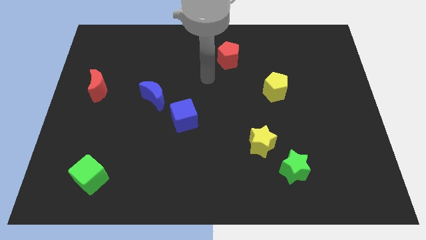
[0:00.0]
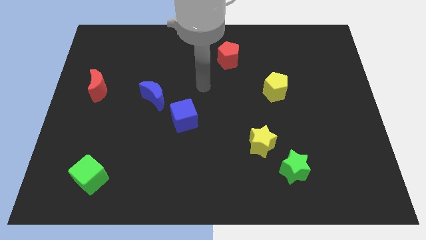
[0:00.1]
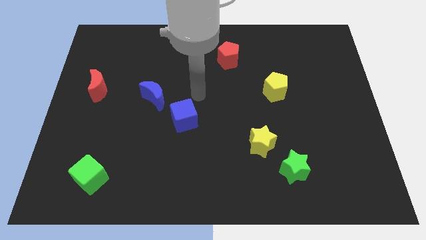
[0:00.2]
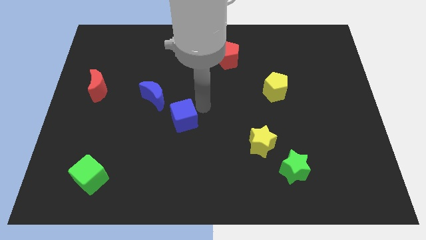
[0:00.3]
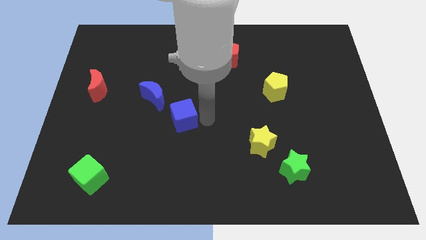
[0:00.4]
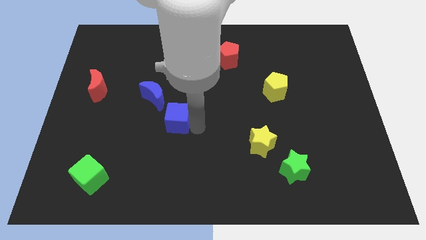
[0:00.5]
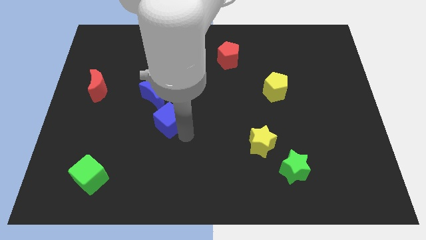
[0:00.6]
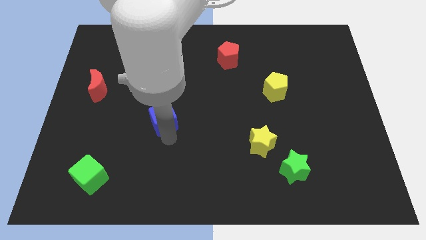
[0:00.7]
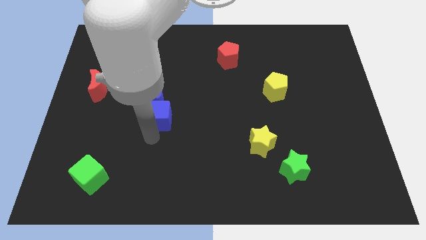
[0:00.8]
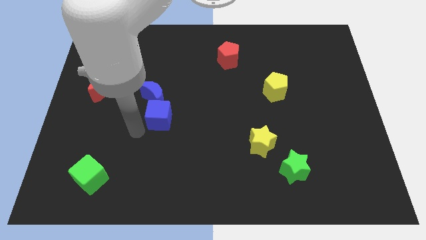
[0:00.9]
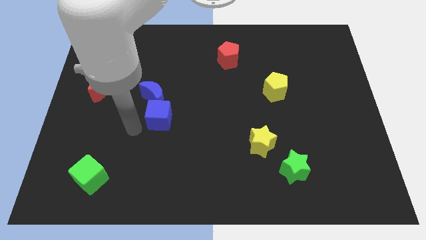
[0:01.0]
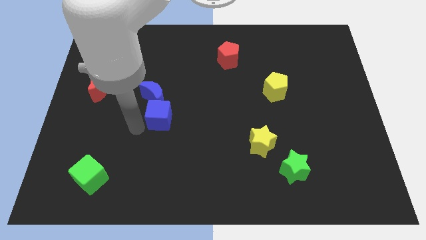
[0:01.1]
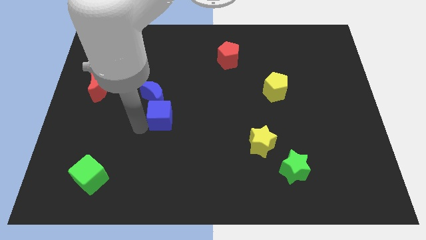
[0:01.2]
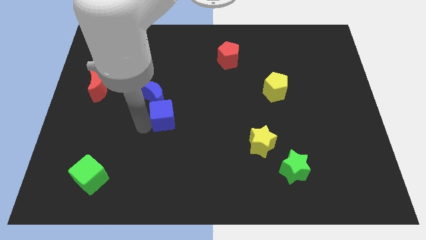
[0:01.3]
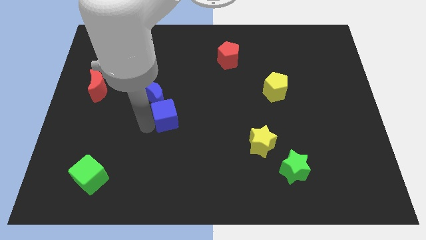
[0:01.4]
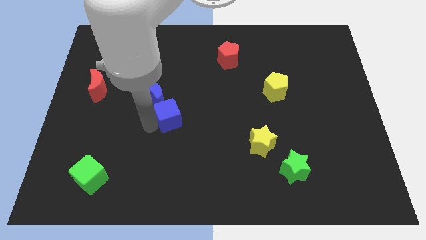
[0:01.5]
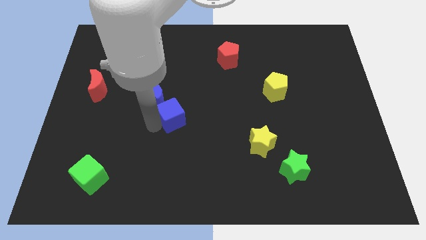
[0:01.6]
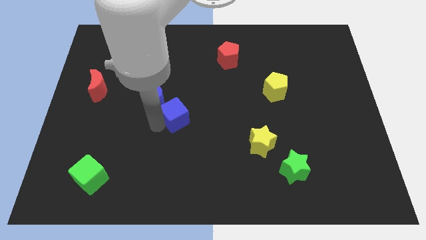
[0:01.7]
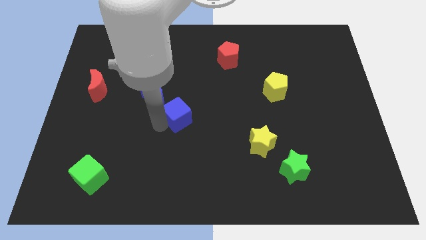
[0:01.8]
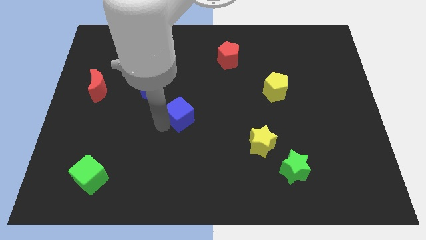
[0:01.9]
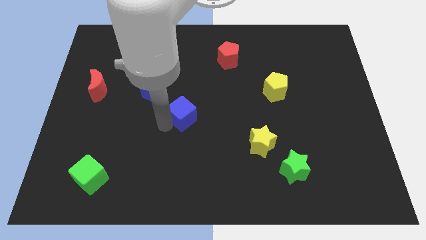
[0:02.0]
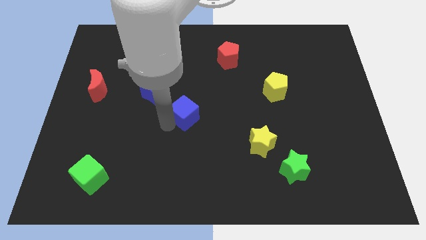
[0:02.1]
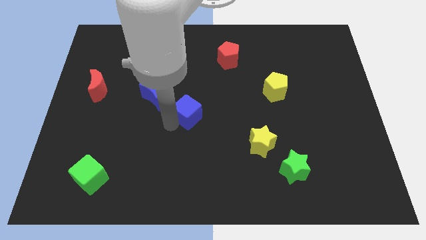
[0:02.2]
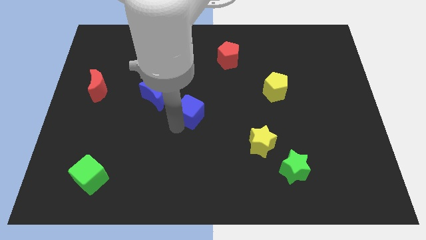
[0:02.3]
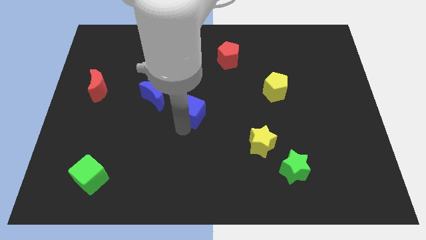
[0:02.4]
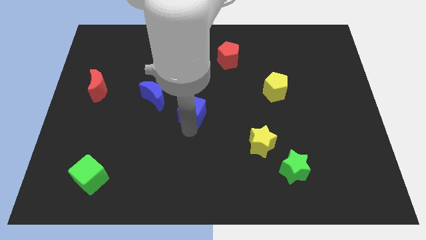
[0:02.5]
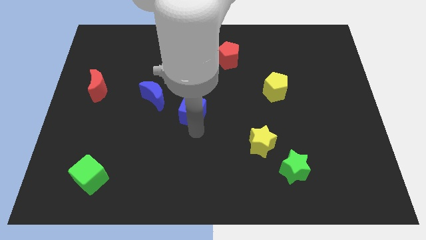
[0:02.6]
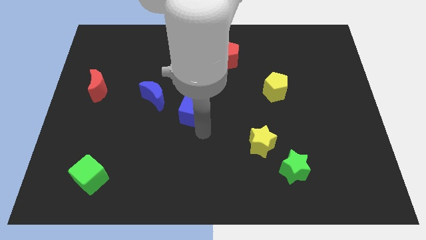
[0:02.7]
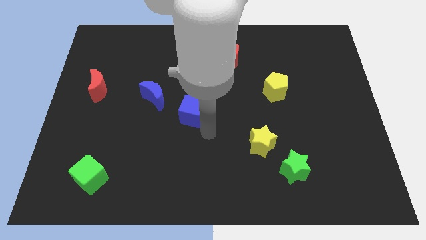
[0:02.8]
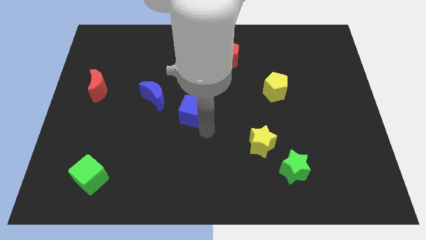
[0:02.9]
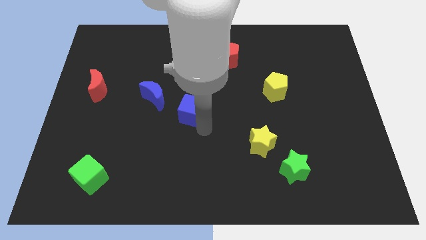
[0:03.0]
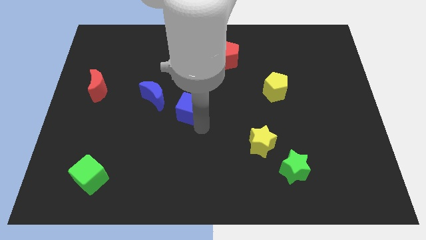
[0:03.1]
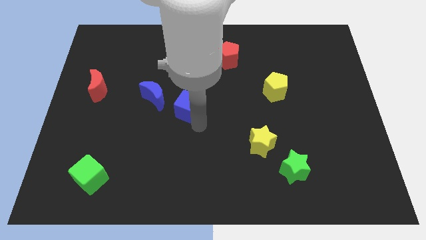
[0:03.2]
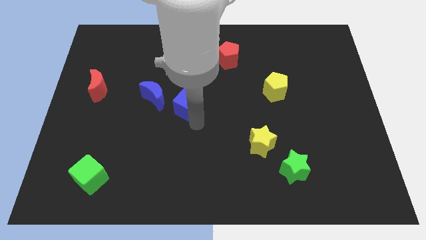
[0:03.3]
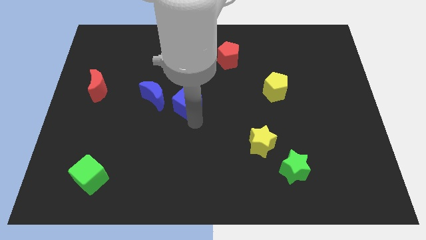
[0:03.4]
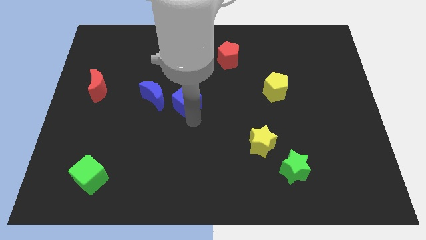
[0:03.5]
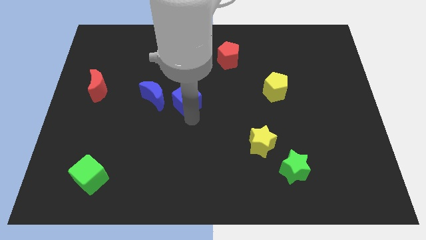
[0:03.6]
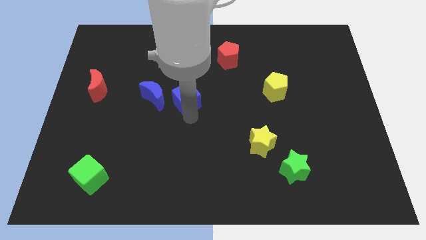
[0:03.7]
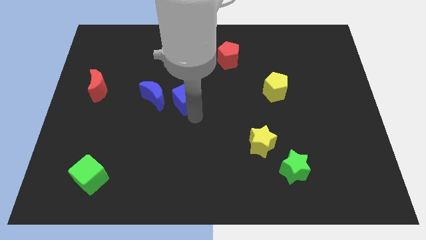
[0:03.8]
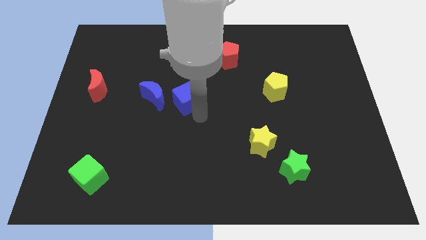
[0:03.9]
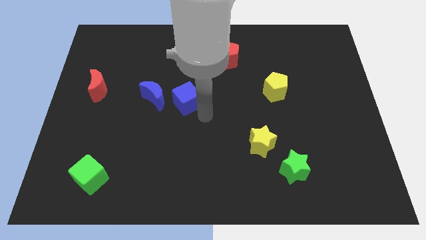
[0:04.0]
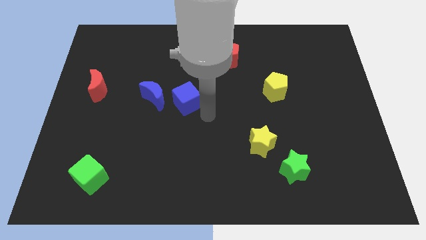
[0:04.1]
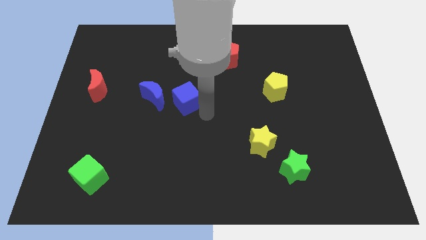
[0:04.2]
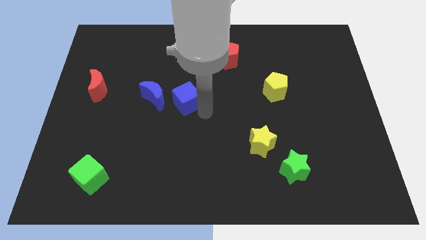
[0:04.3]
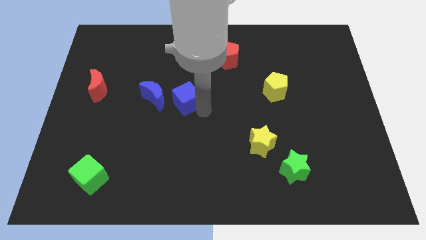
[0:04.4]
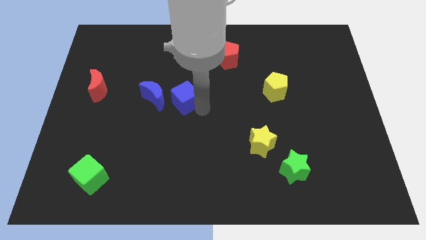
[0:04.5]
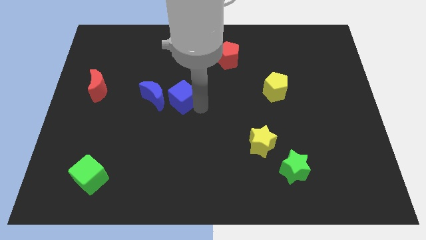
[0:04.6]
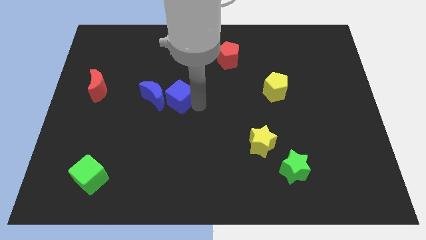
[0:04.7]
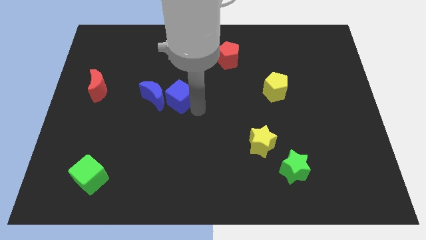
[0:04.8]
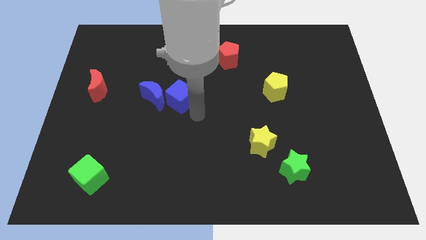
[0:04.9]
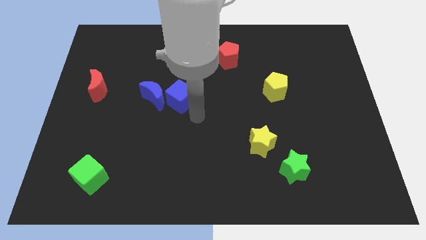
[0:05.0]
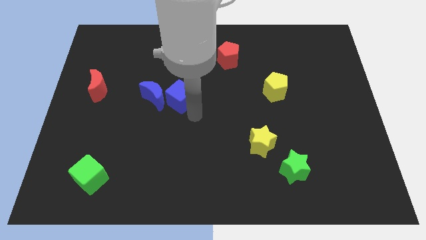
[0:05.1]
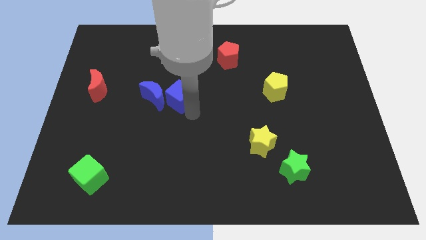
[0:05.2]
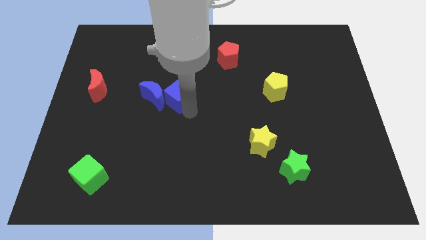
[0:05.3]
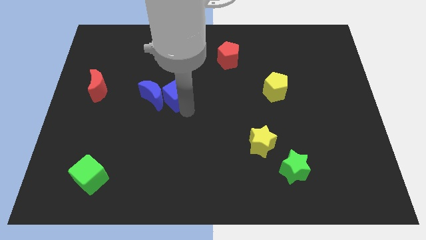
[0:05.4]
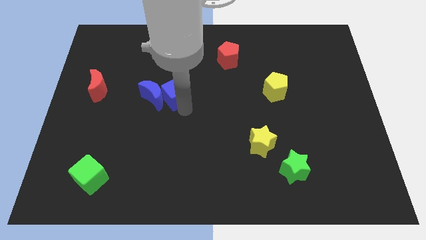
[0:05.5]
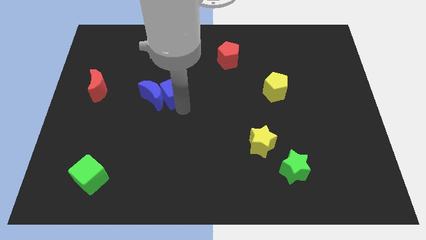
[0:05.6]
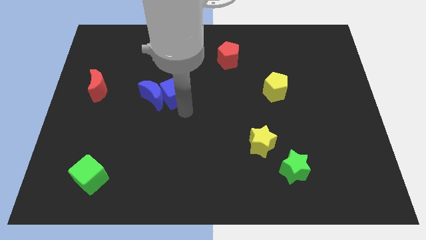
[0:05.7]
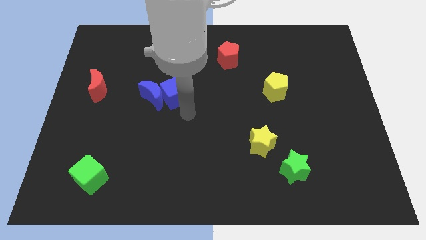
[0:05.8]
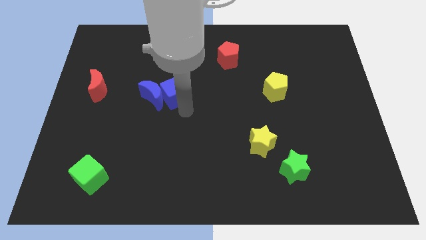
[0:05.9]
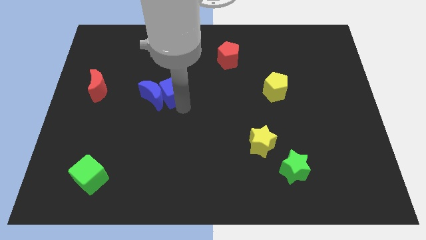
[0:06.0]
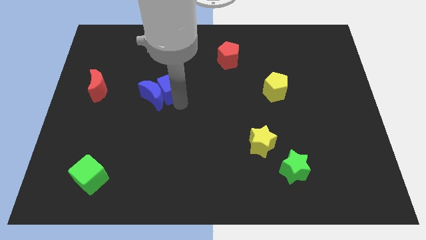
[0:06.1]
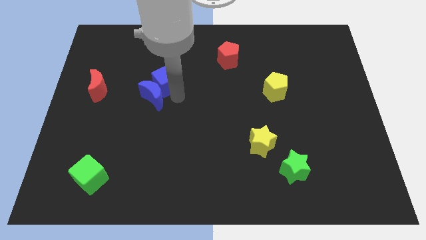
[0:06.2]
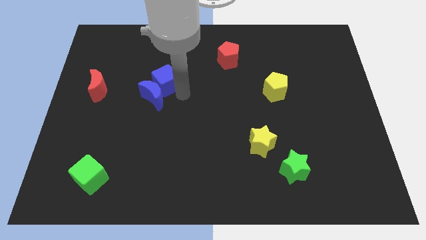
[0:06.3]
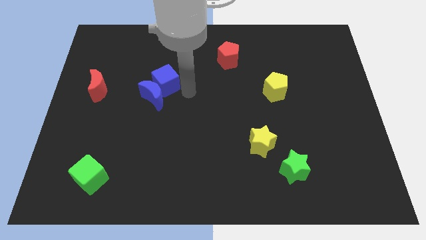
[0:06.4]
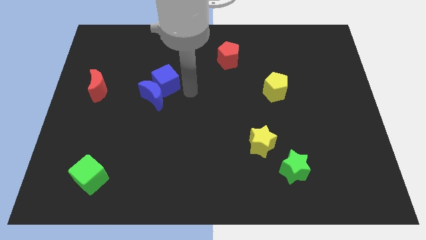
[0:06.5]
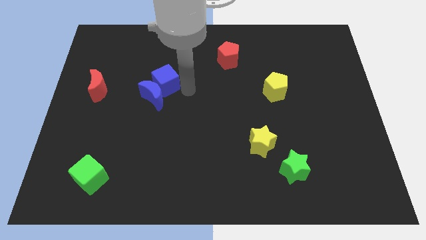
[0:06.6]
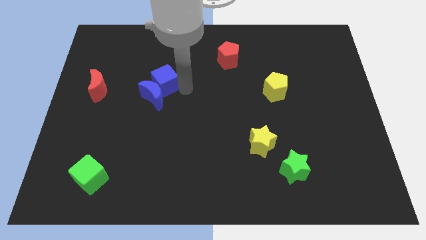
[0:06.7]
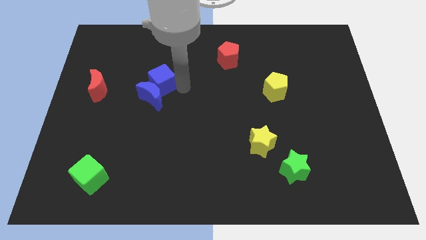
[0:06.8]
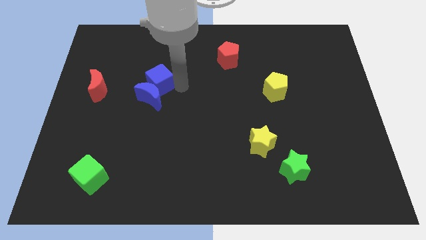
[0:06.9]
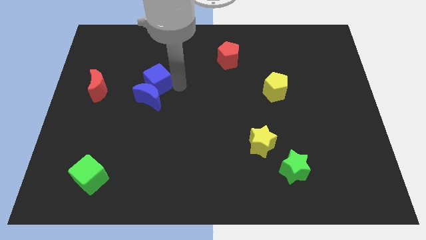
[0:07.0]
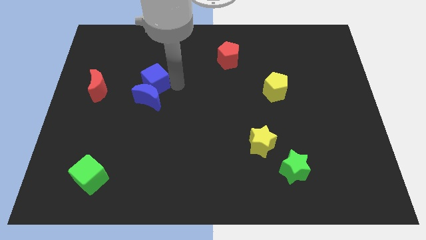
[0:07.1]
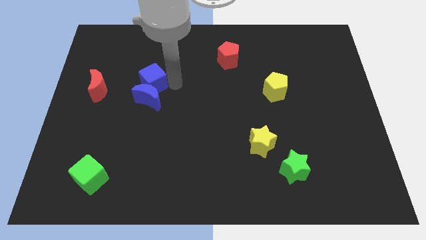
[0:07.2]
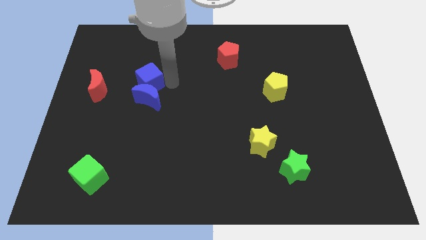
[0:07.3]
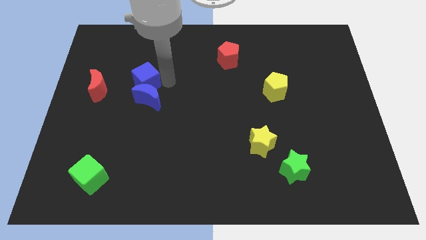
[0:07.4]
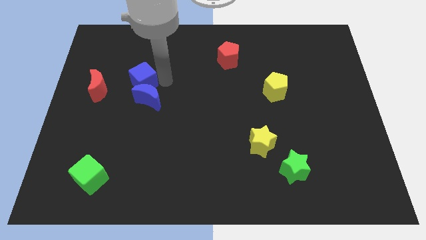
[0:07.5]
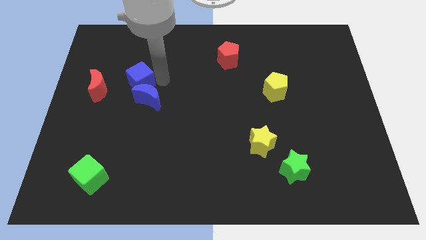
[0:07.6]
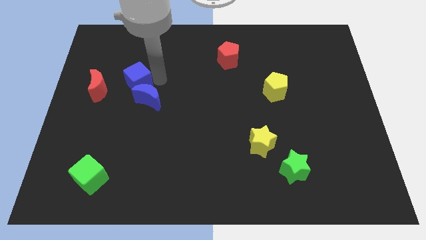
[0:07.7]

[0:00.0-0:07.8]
push the blue cube to the top right side of the red moon
